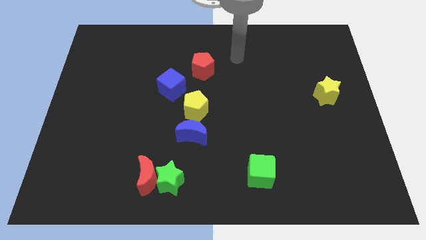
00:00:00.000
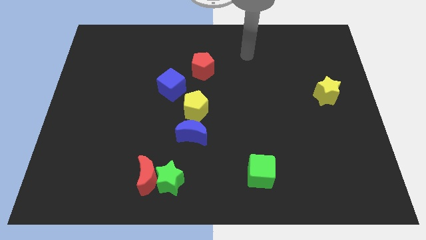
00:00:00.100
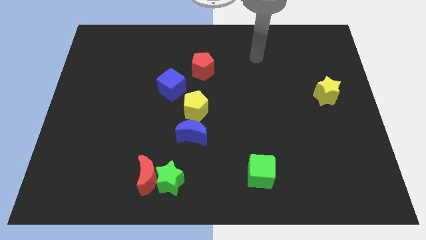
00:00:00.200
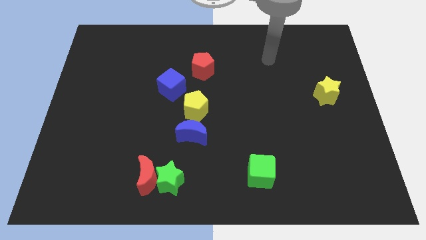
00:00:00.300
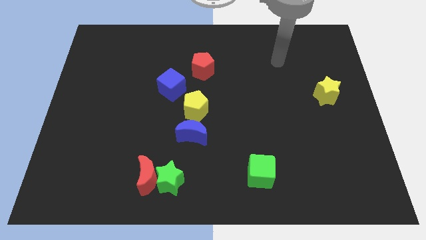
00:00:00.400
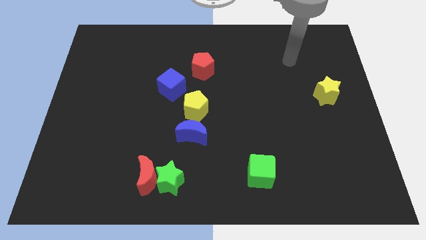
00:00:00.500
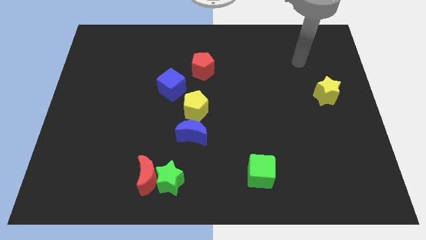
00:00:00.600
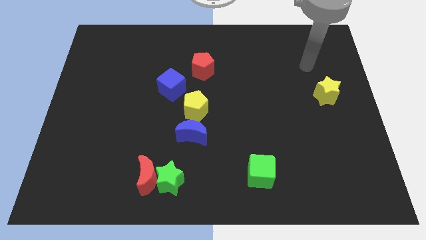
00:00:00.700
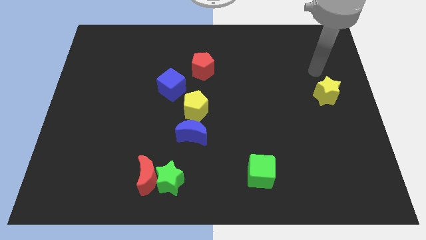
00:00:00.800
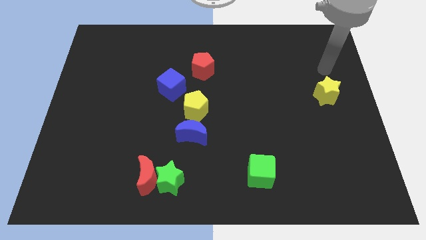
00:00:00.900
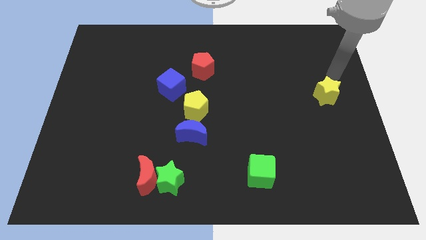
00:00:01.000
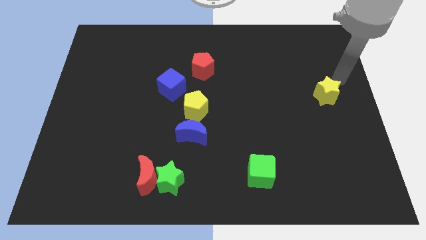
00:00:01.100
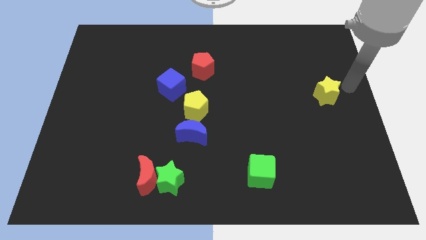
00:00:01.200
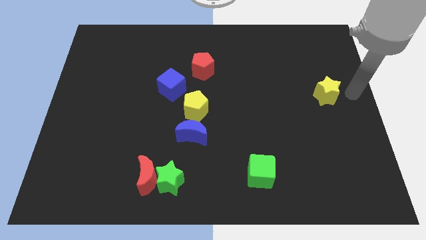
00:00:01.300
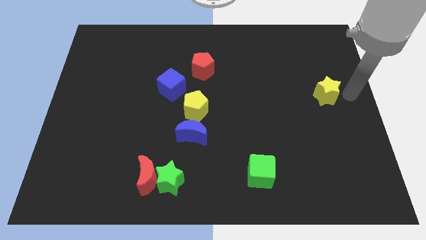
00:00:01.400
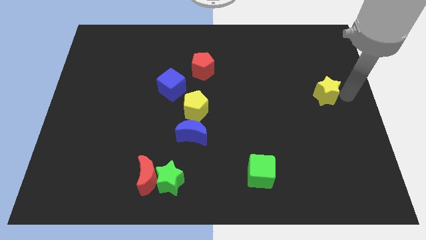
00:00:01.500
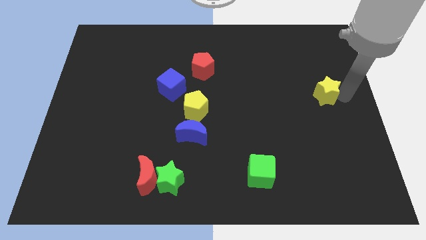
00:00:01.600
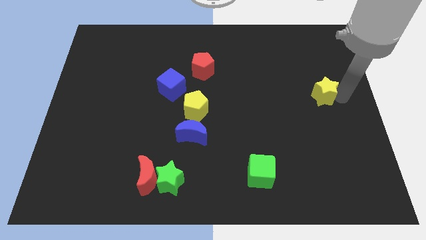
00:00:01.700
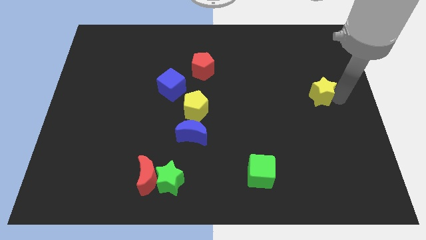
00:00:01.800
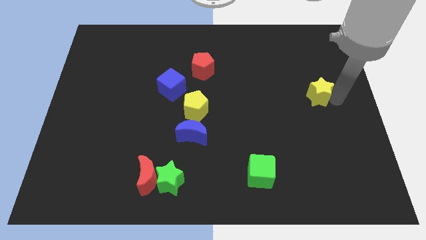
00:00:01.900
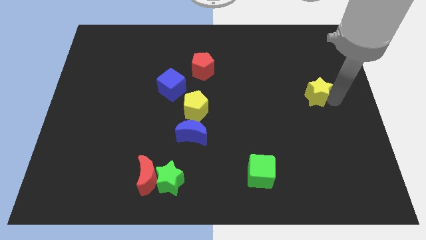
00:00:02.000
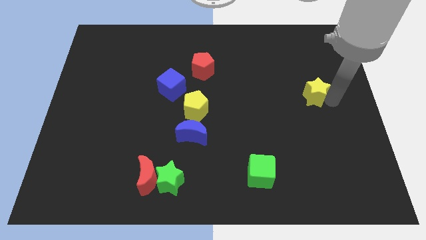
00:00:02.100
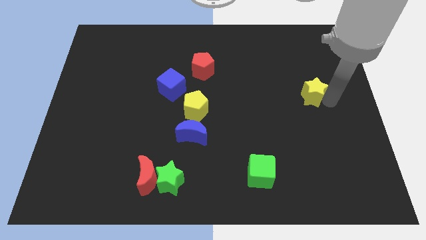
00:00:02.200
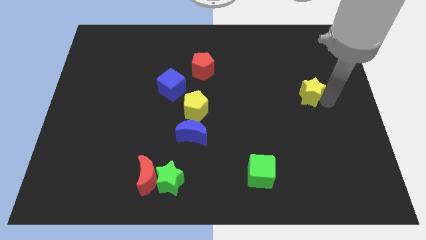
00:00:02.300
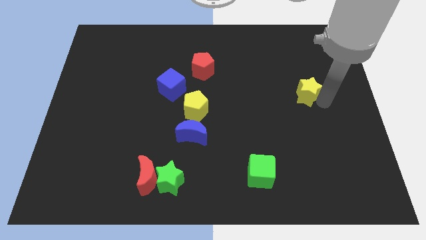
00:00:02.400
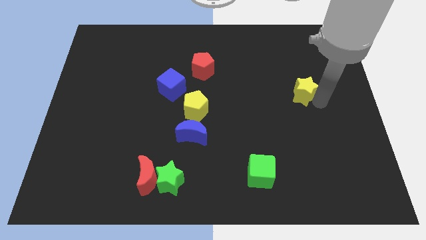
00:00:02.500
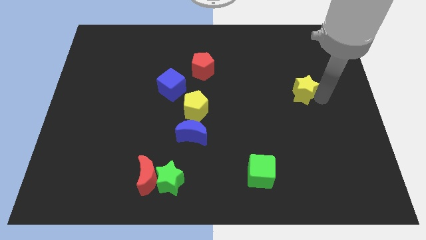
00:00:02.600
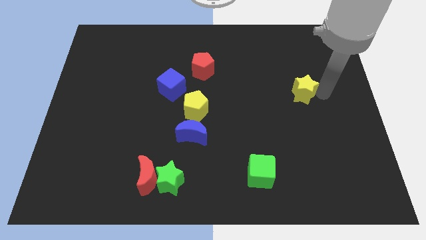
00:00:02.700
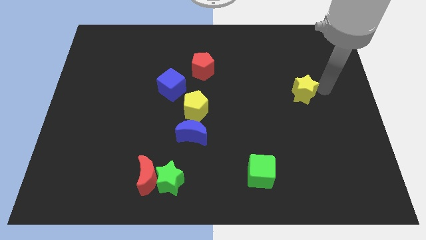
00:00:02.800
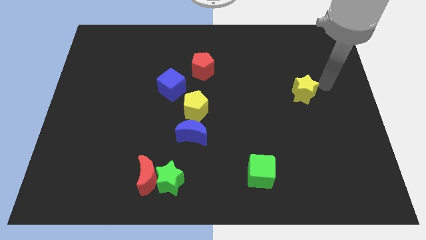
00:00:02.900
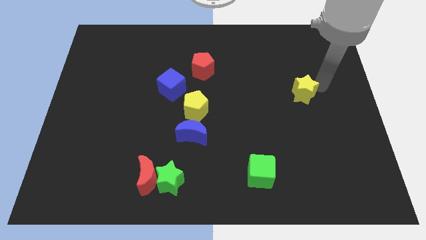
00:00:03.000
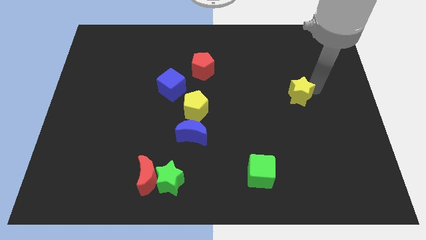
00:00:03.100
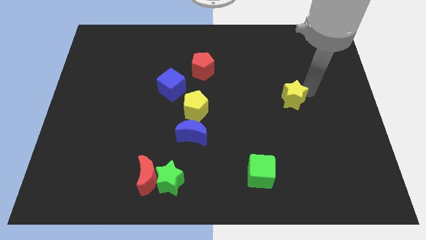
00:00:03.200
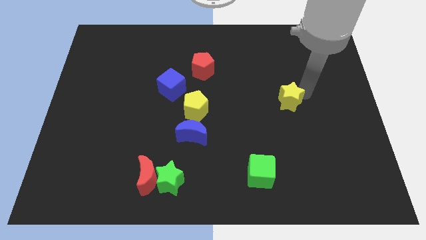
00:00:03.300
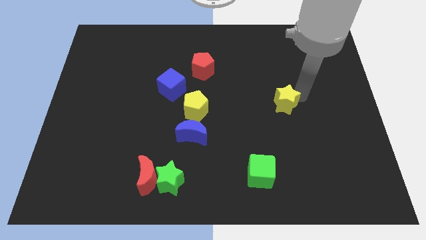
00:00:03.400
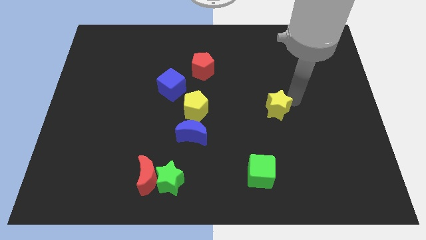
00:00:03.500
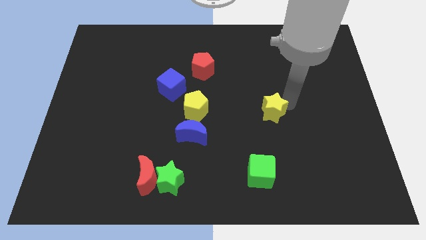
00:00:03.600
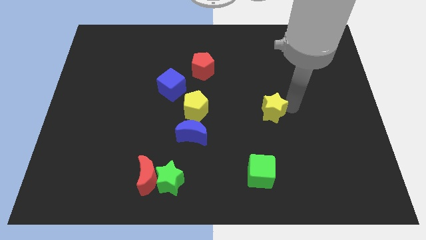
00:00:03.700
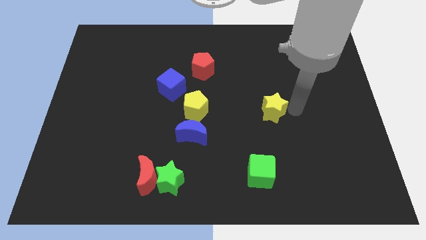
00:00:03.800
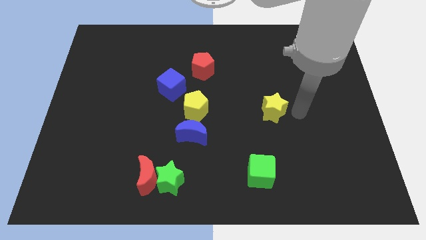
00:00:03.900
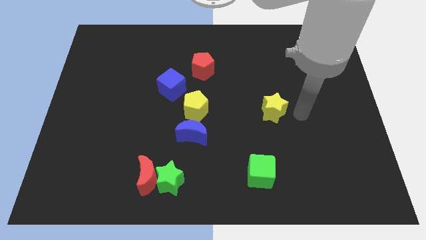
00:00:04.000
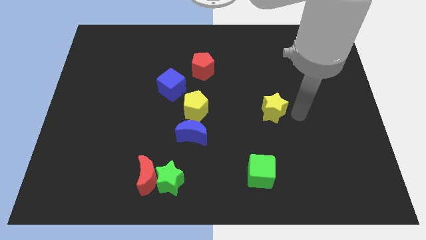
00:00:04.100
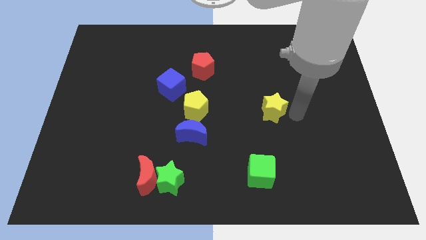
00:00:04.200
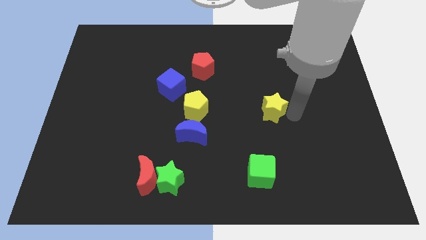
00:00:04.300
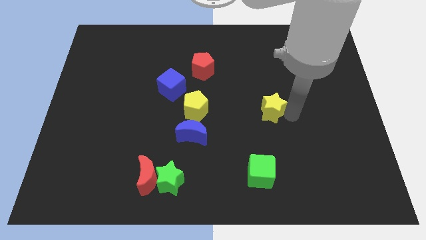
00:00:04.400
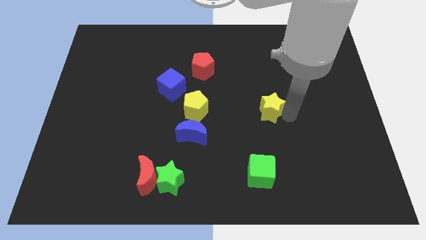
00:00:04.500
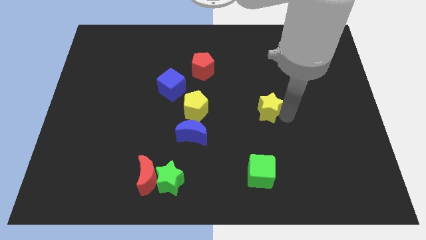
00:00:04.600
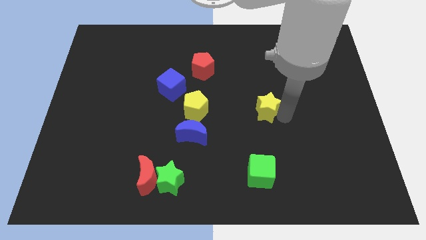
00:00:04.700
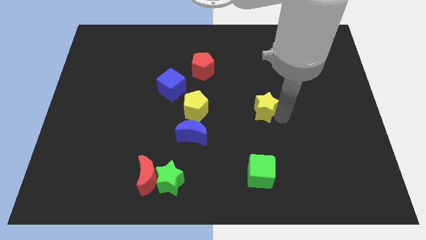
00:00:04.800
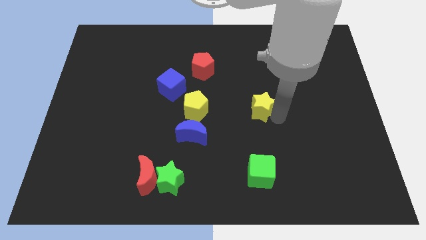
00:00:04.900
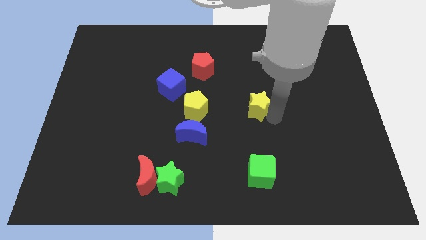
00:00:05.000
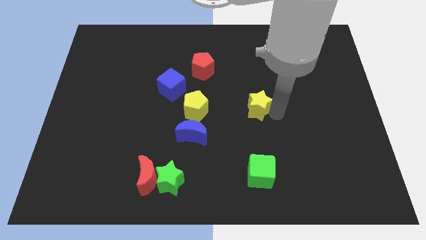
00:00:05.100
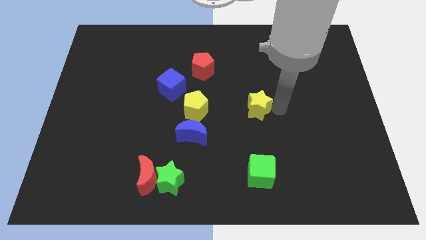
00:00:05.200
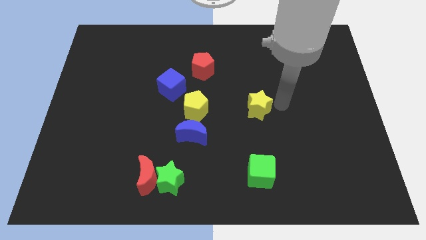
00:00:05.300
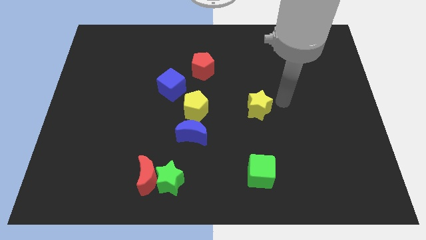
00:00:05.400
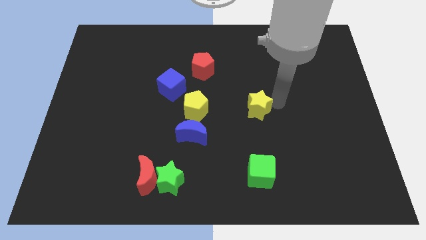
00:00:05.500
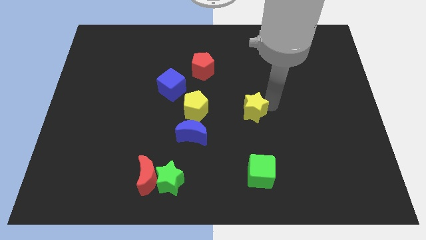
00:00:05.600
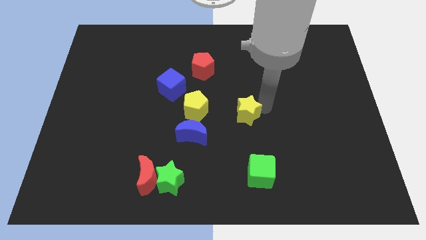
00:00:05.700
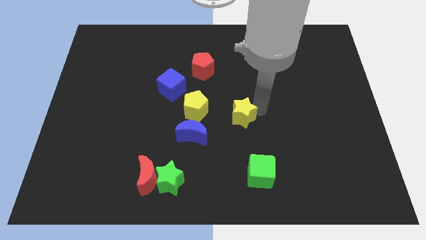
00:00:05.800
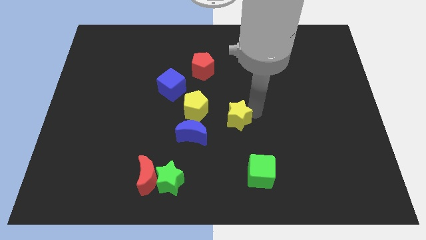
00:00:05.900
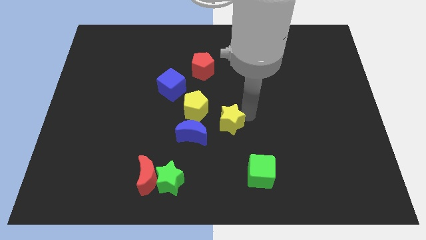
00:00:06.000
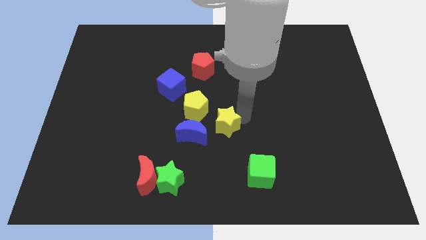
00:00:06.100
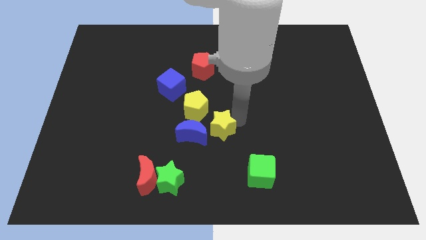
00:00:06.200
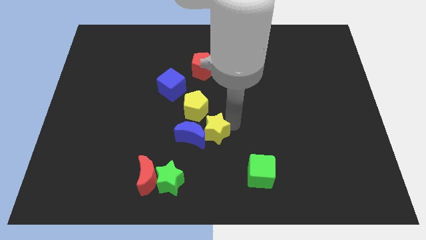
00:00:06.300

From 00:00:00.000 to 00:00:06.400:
put the yellow star close to the blue moon
